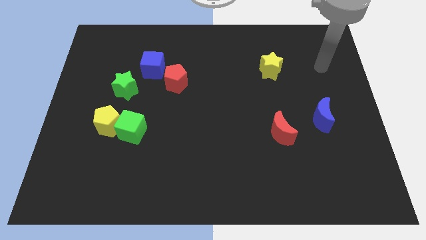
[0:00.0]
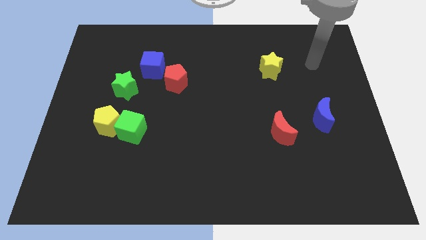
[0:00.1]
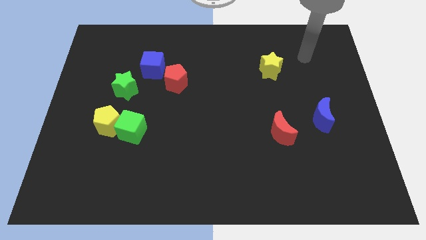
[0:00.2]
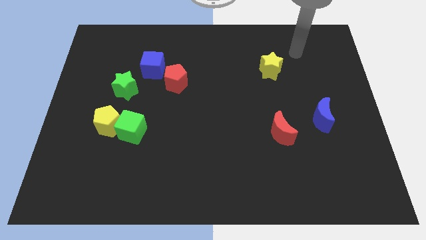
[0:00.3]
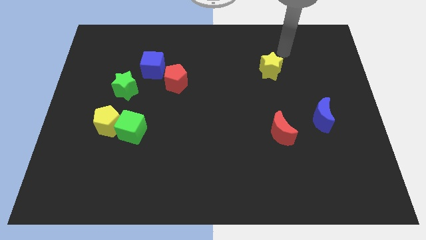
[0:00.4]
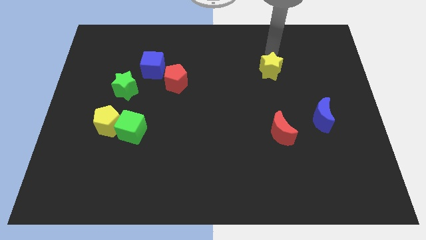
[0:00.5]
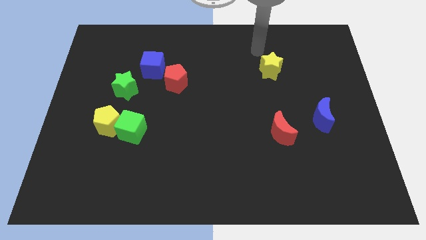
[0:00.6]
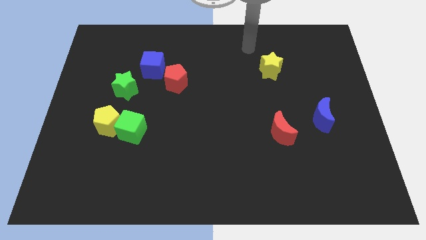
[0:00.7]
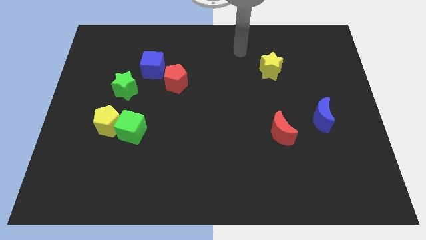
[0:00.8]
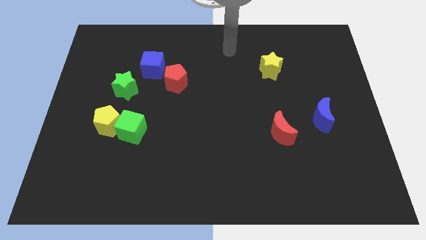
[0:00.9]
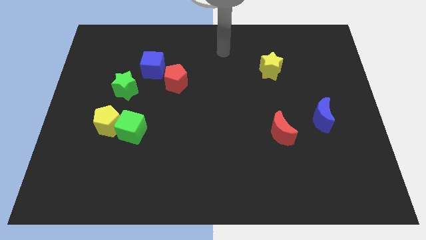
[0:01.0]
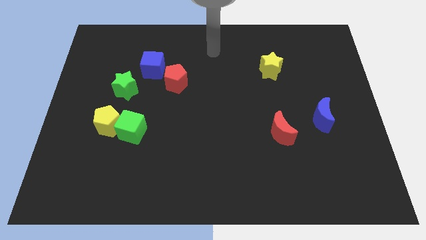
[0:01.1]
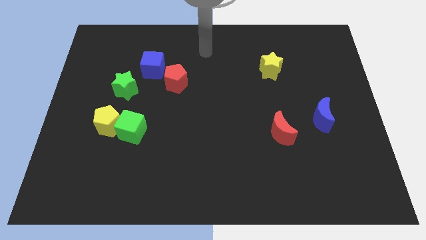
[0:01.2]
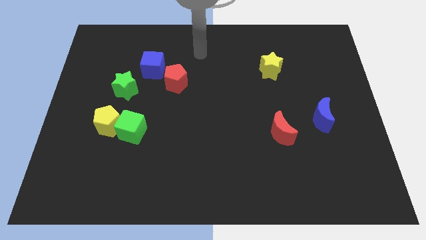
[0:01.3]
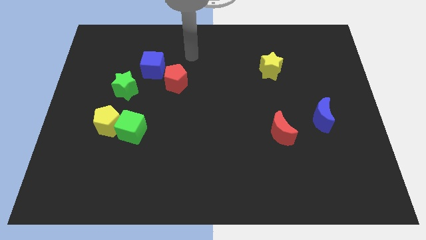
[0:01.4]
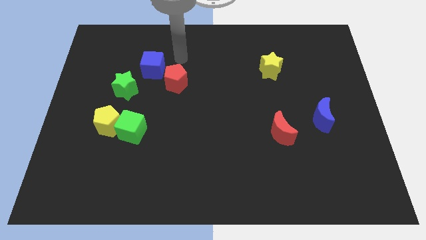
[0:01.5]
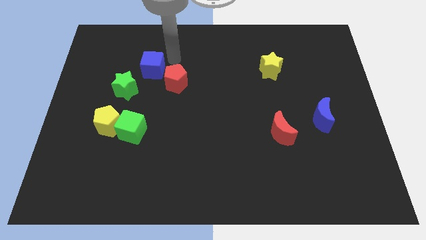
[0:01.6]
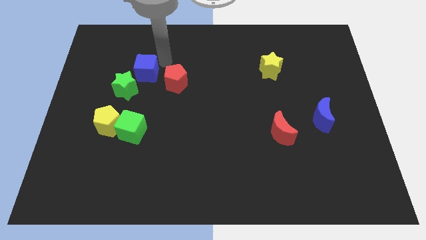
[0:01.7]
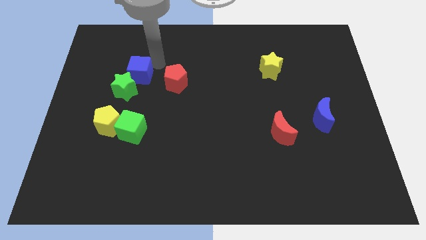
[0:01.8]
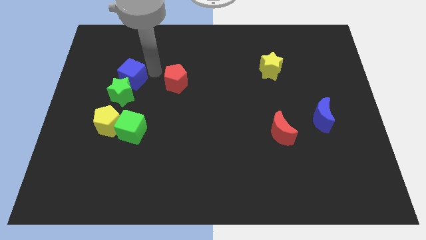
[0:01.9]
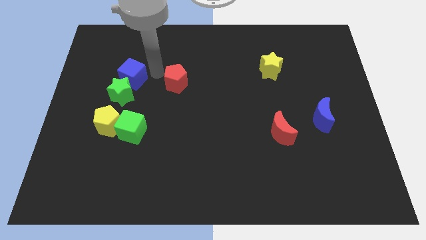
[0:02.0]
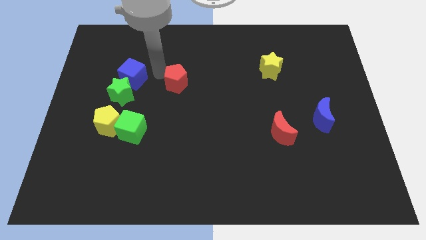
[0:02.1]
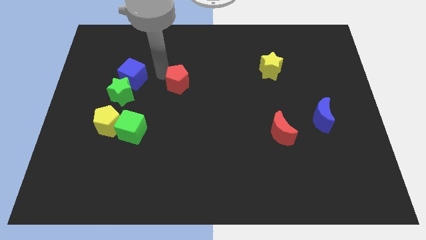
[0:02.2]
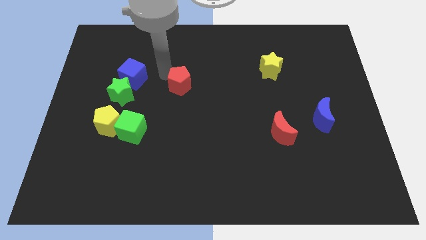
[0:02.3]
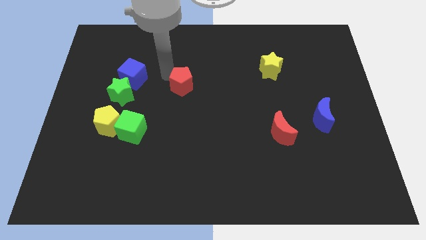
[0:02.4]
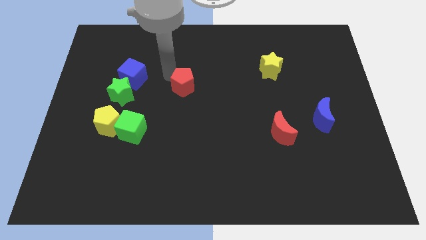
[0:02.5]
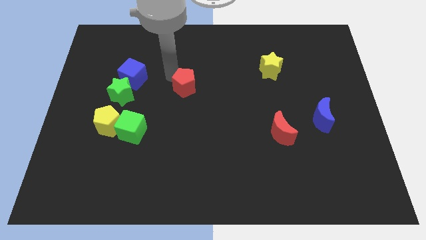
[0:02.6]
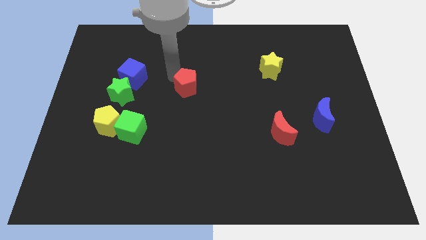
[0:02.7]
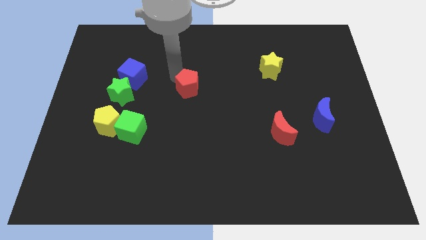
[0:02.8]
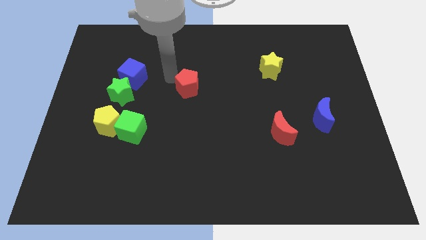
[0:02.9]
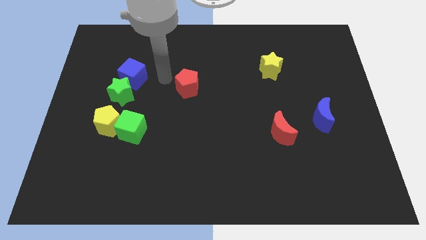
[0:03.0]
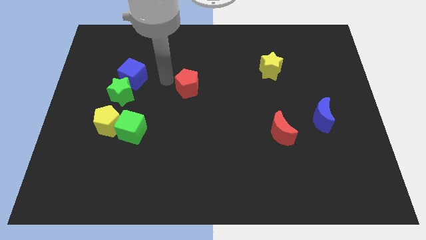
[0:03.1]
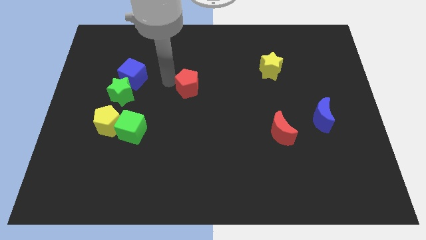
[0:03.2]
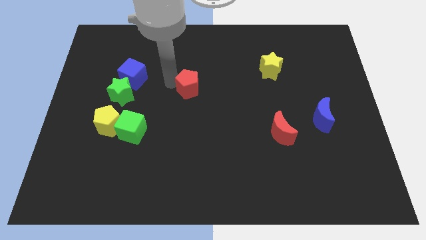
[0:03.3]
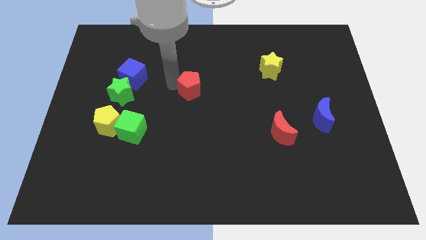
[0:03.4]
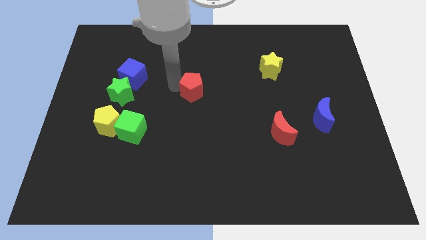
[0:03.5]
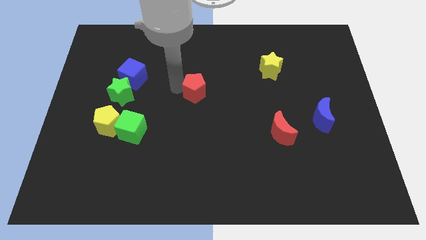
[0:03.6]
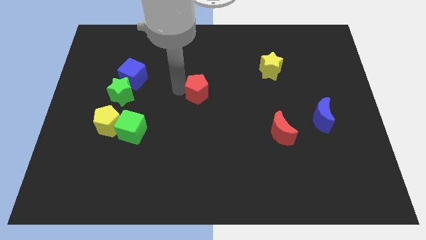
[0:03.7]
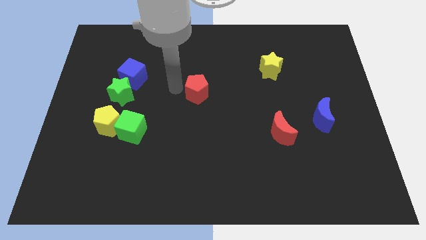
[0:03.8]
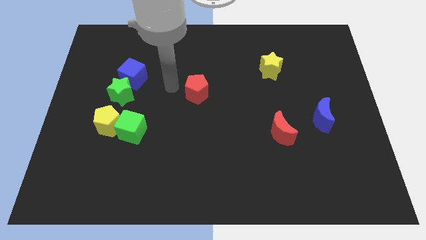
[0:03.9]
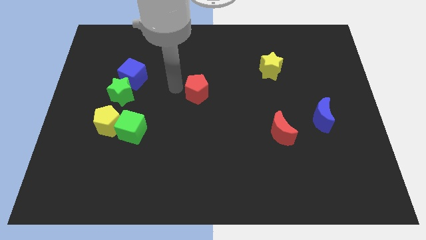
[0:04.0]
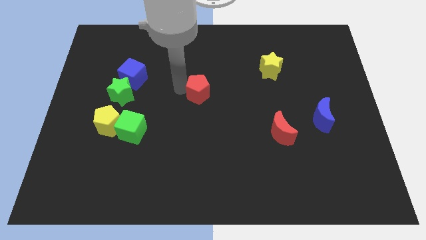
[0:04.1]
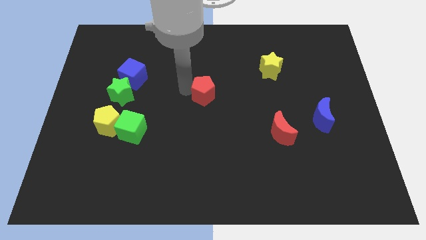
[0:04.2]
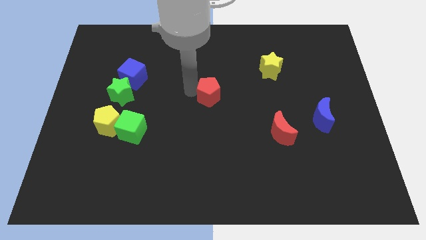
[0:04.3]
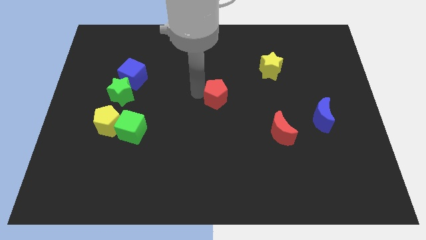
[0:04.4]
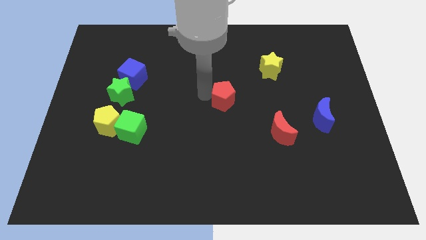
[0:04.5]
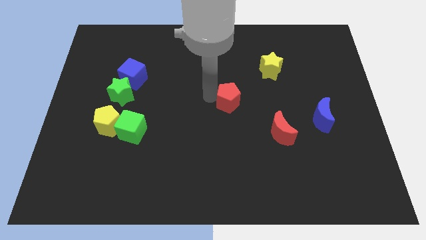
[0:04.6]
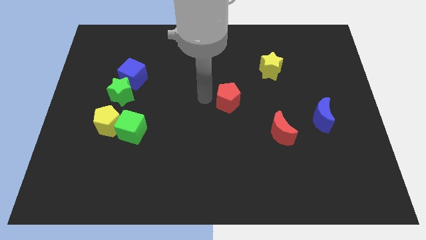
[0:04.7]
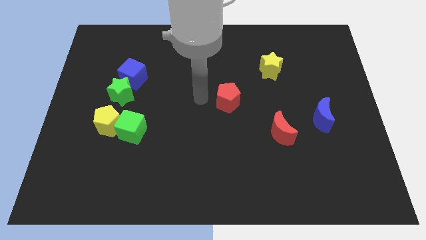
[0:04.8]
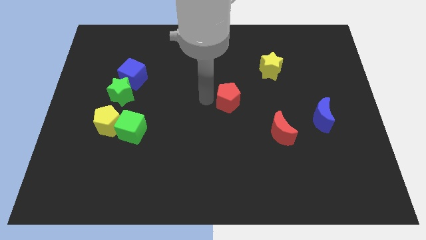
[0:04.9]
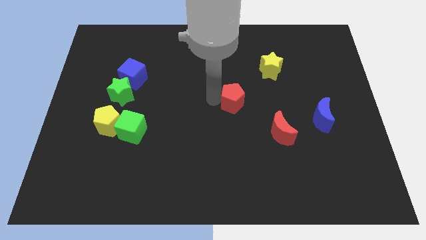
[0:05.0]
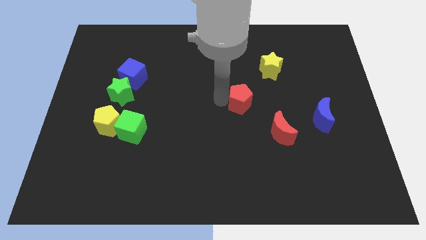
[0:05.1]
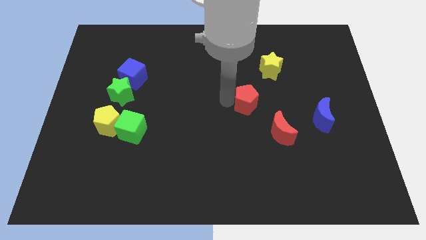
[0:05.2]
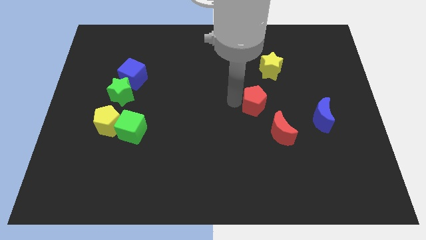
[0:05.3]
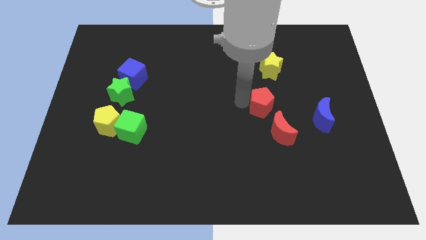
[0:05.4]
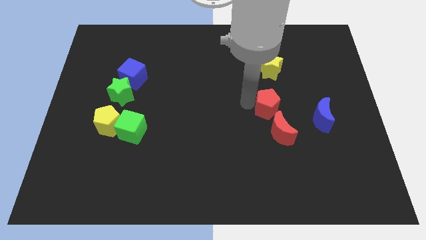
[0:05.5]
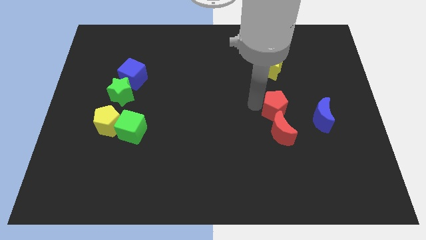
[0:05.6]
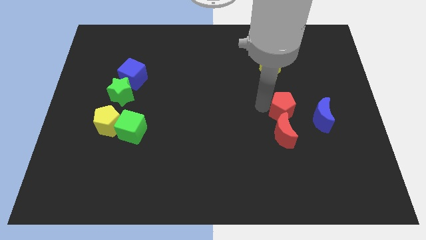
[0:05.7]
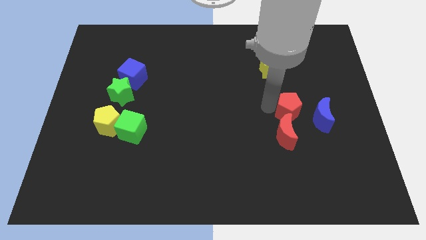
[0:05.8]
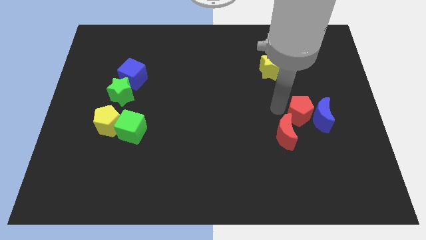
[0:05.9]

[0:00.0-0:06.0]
push the red pentagon towards the blue moon
